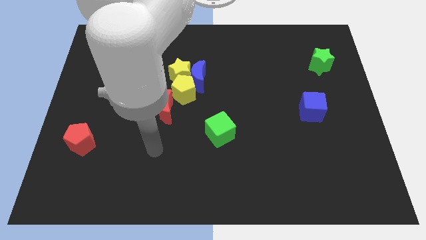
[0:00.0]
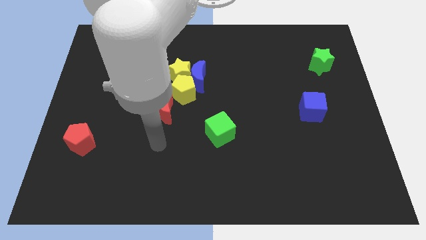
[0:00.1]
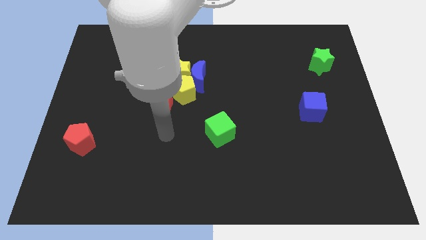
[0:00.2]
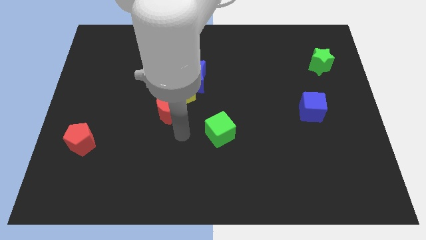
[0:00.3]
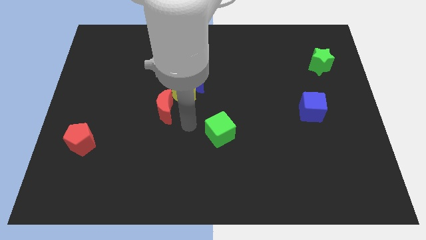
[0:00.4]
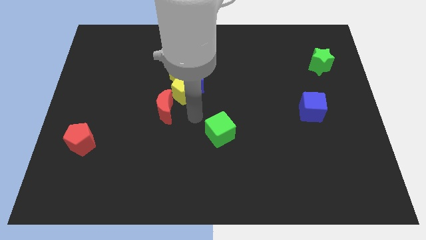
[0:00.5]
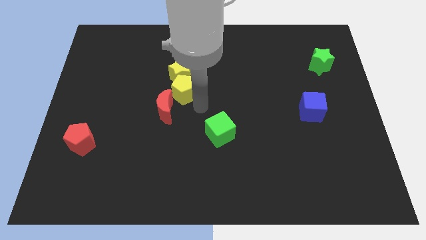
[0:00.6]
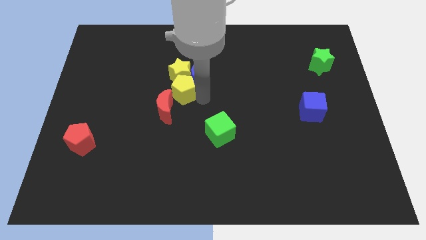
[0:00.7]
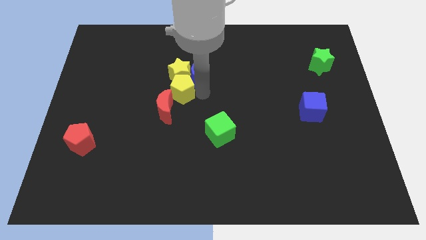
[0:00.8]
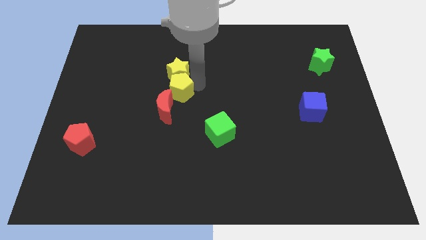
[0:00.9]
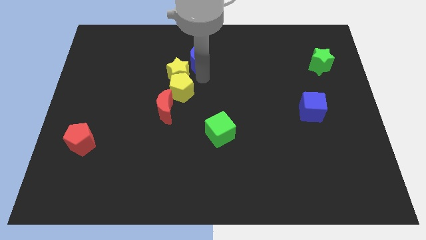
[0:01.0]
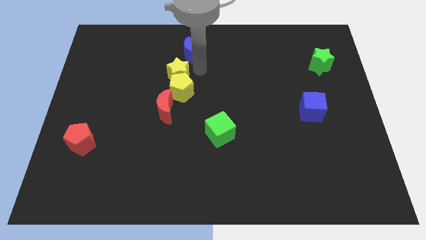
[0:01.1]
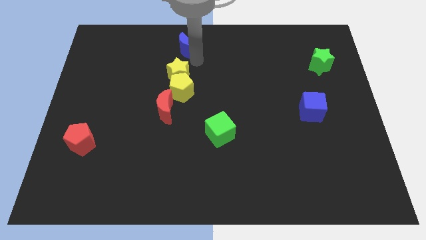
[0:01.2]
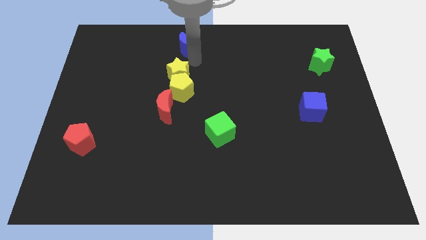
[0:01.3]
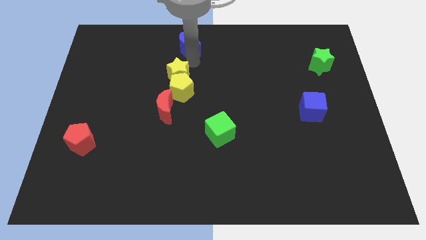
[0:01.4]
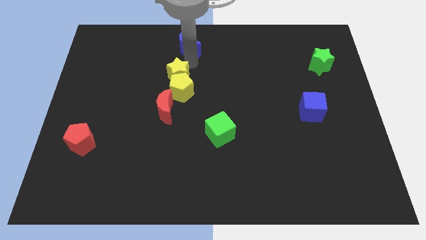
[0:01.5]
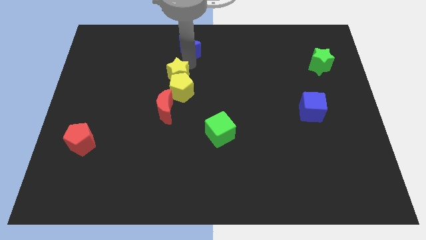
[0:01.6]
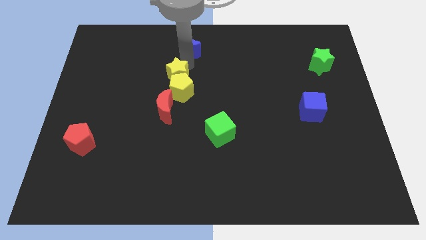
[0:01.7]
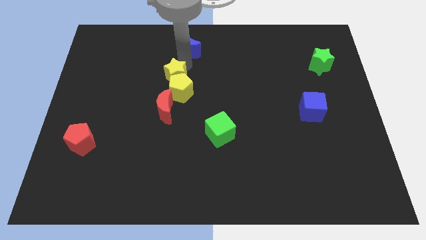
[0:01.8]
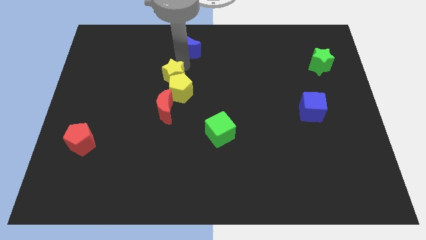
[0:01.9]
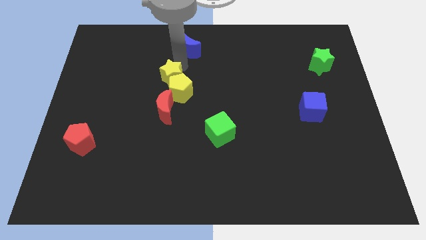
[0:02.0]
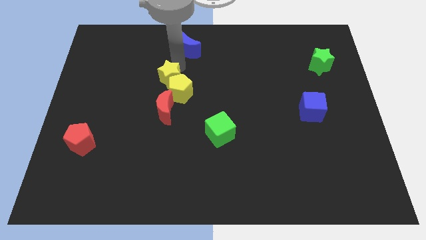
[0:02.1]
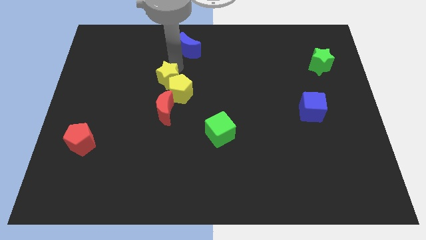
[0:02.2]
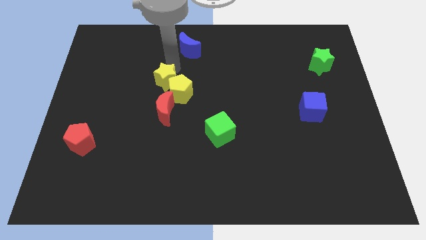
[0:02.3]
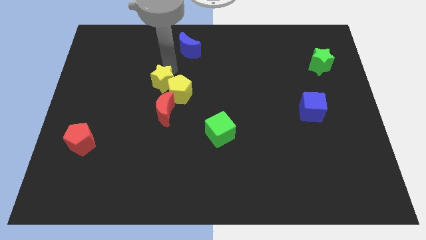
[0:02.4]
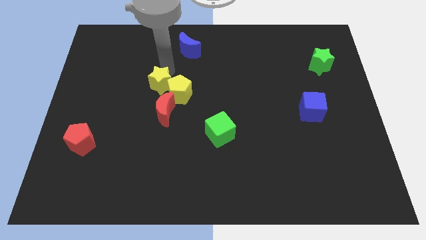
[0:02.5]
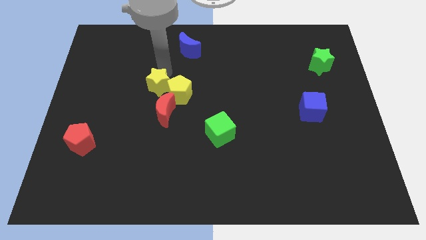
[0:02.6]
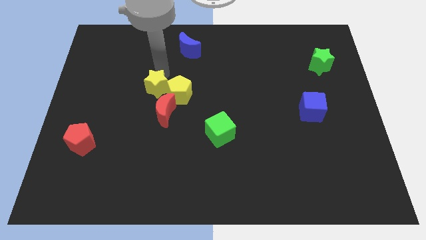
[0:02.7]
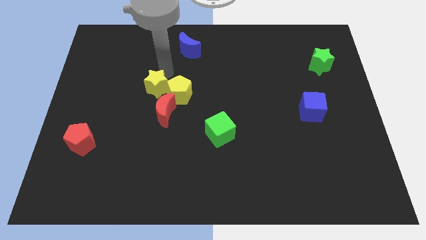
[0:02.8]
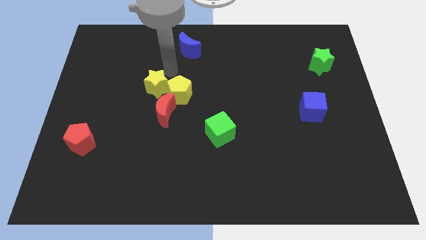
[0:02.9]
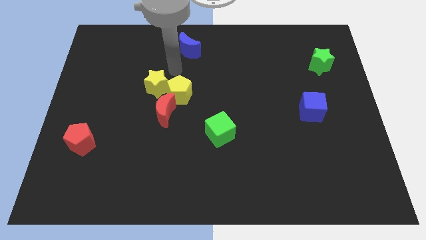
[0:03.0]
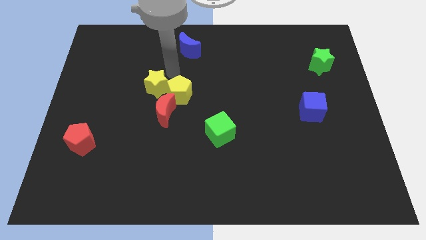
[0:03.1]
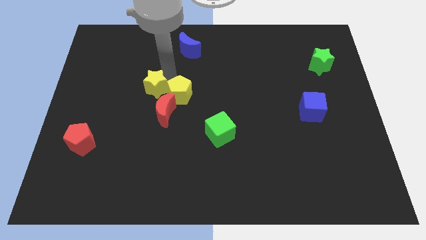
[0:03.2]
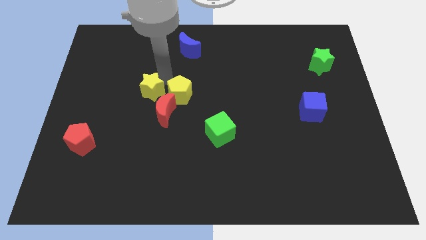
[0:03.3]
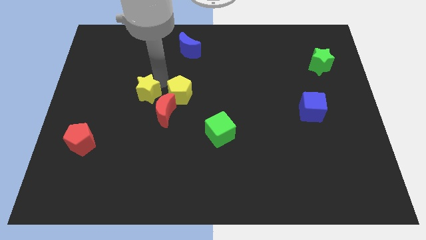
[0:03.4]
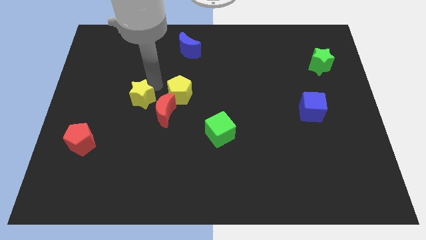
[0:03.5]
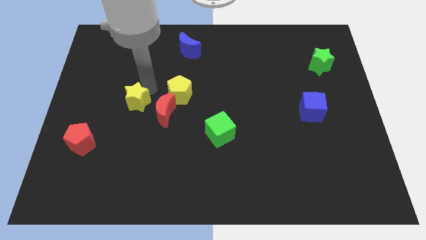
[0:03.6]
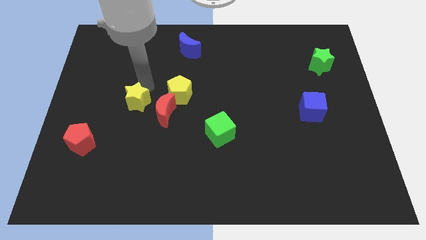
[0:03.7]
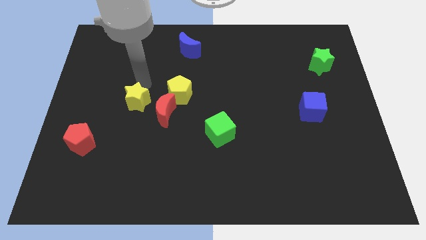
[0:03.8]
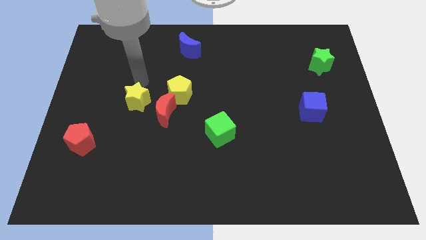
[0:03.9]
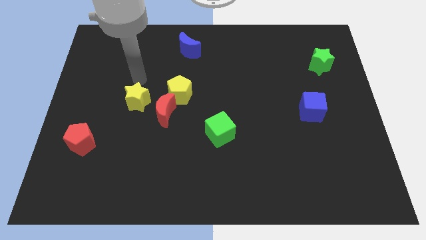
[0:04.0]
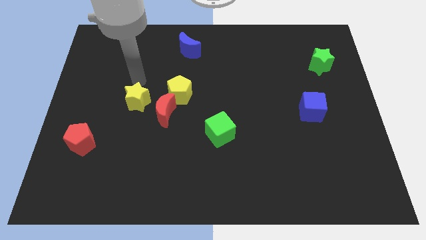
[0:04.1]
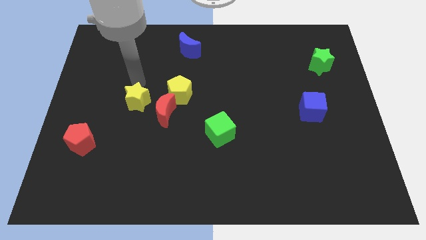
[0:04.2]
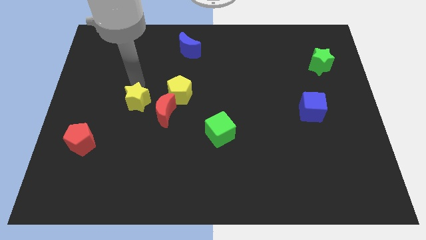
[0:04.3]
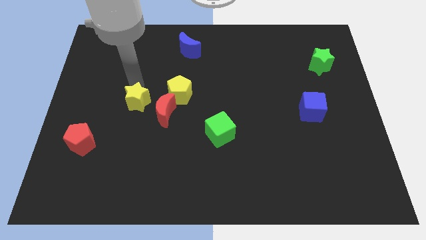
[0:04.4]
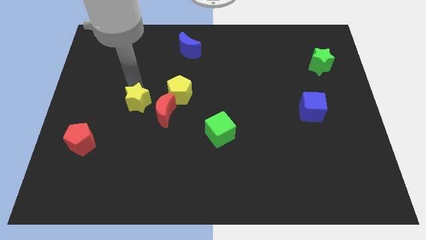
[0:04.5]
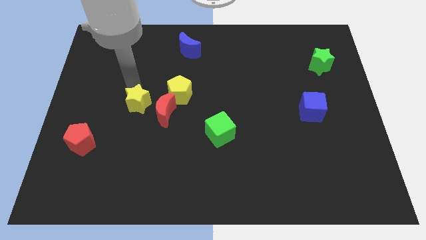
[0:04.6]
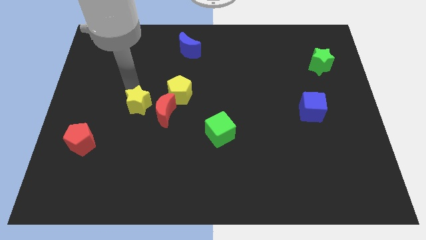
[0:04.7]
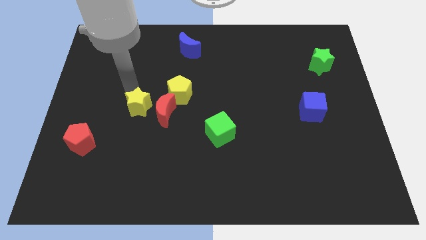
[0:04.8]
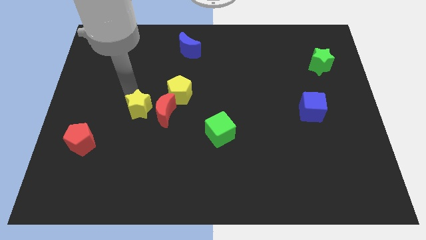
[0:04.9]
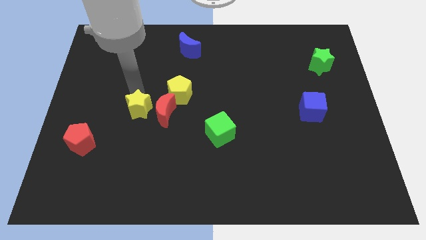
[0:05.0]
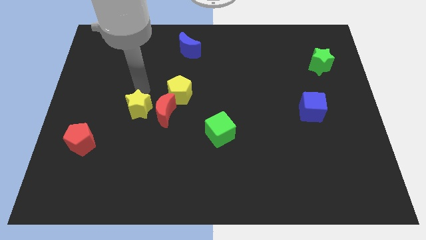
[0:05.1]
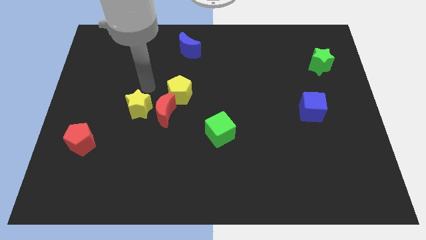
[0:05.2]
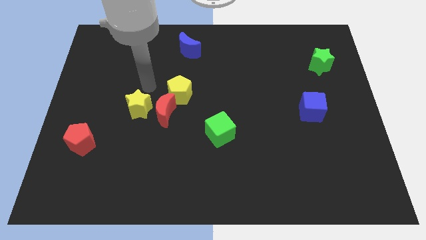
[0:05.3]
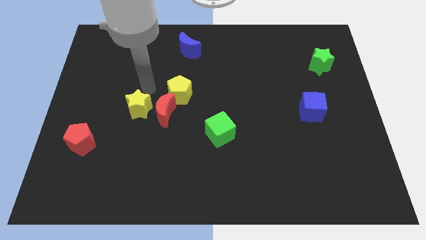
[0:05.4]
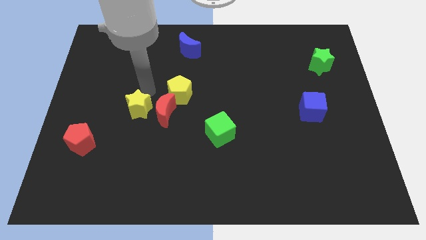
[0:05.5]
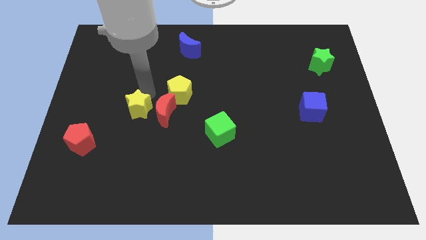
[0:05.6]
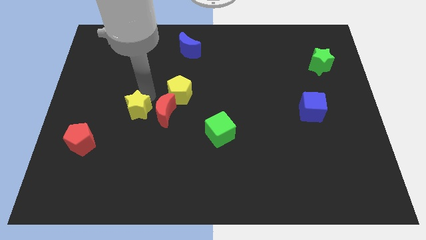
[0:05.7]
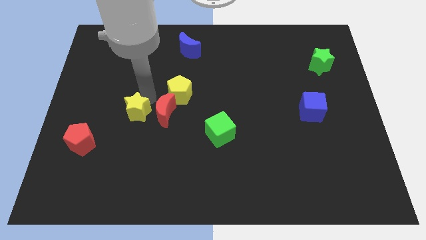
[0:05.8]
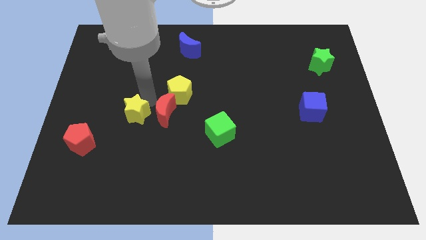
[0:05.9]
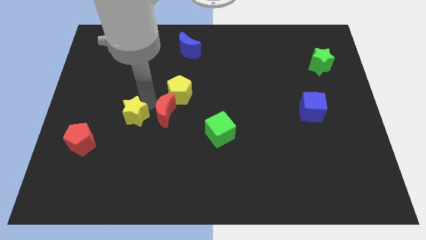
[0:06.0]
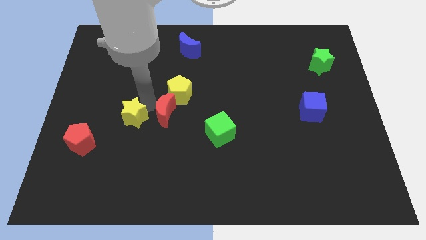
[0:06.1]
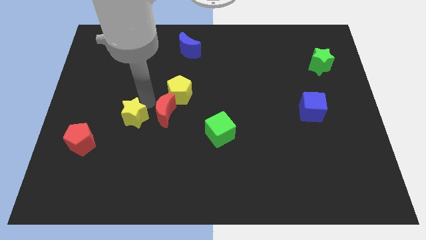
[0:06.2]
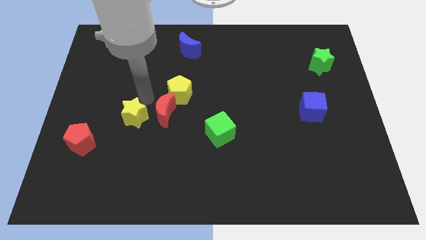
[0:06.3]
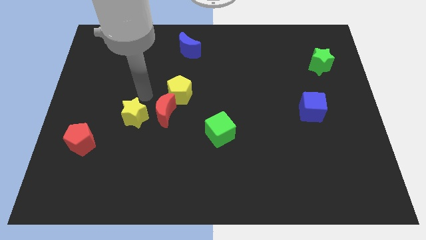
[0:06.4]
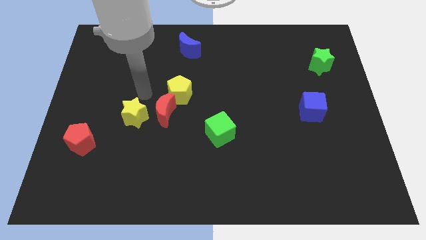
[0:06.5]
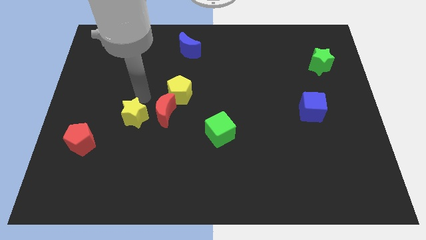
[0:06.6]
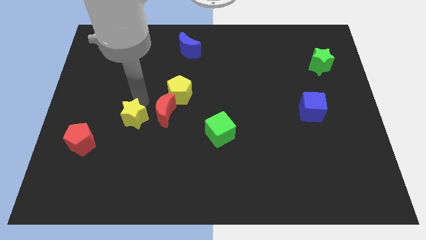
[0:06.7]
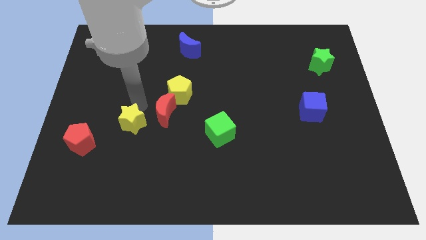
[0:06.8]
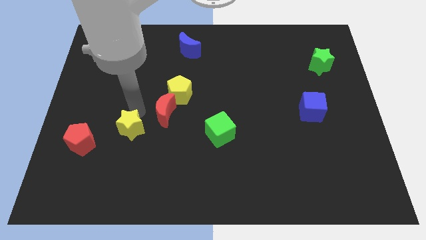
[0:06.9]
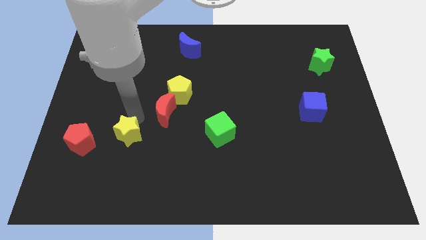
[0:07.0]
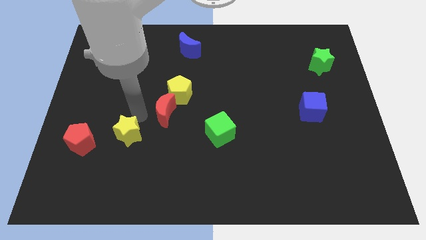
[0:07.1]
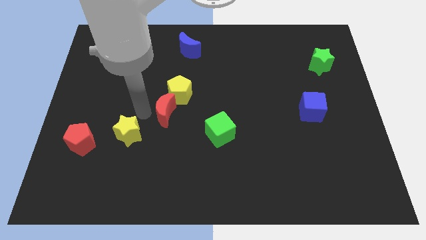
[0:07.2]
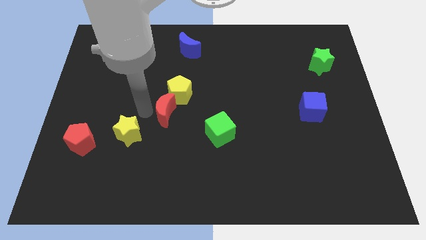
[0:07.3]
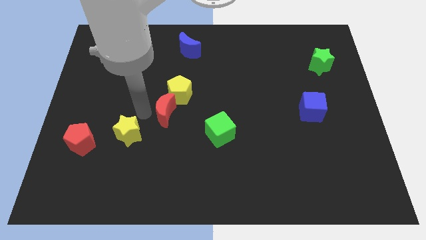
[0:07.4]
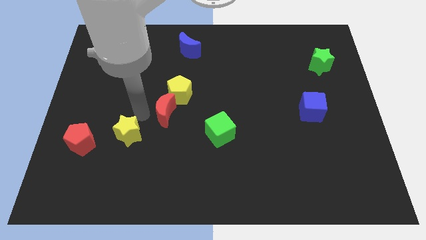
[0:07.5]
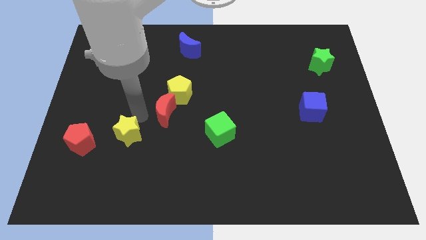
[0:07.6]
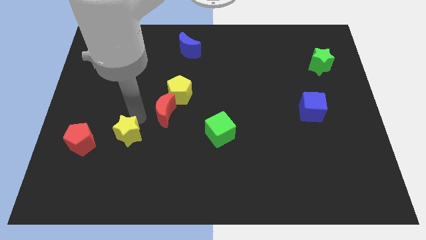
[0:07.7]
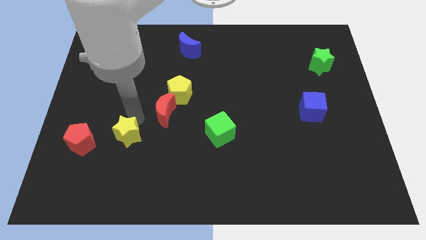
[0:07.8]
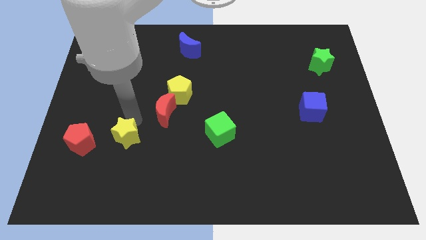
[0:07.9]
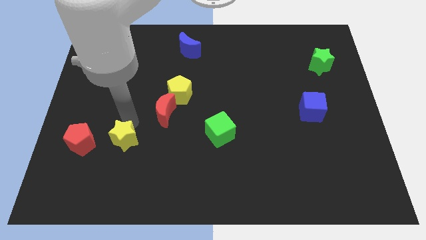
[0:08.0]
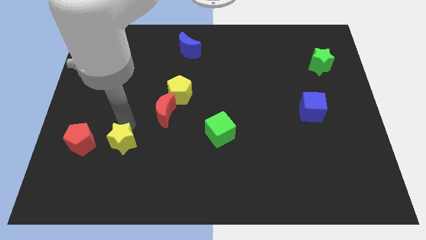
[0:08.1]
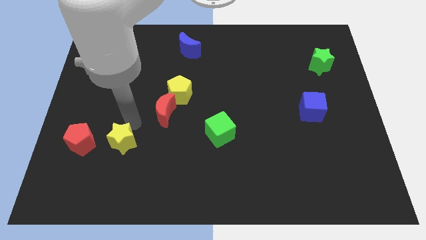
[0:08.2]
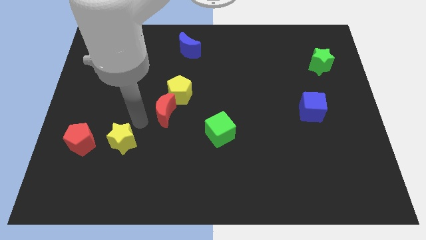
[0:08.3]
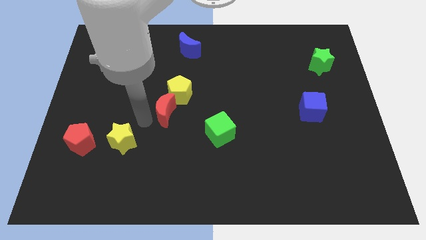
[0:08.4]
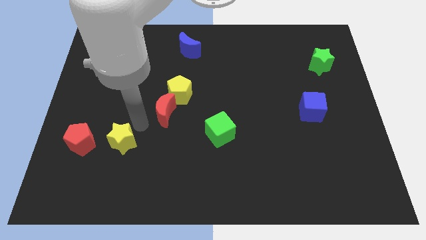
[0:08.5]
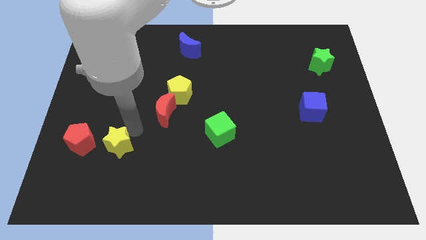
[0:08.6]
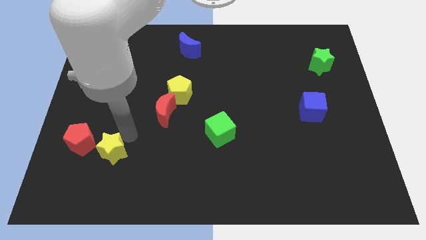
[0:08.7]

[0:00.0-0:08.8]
slide the yellow star to the bottom right side of the red pentagon
